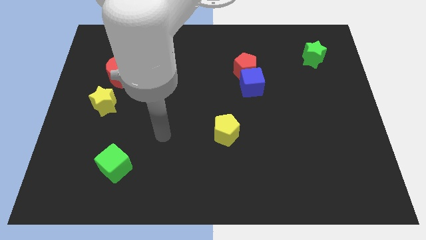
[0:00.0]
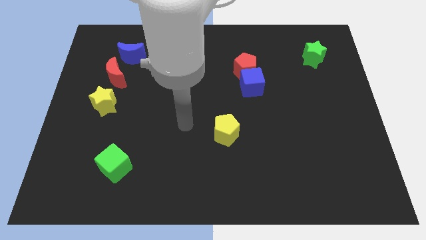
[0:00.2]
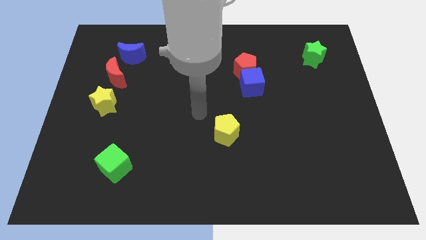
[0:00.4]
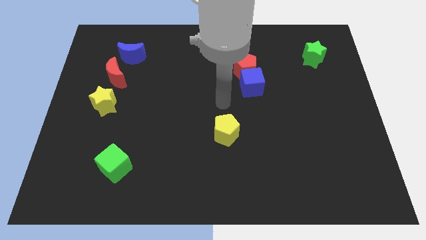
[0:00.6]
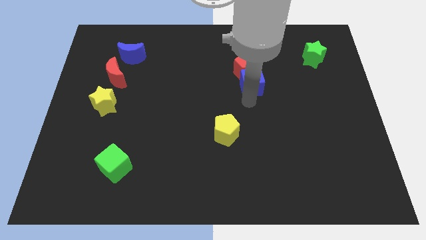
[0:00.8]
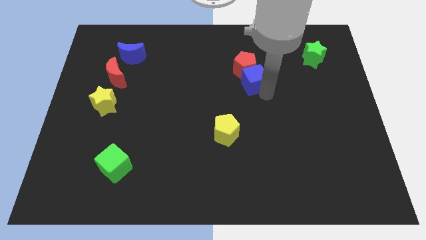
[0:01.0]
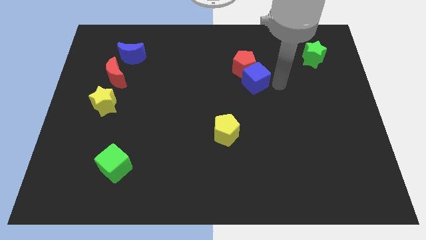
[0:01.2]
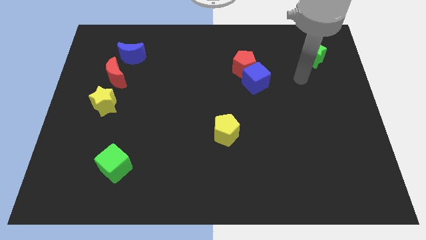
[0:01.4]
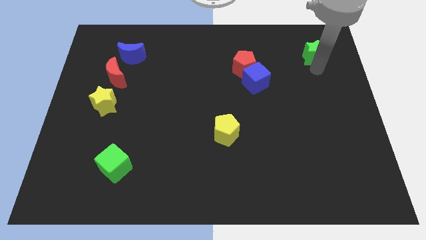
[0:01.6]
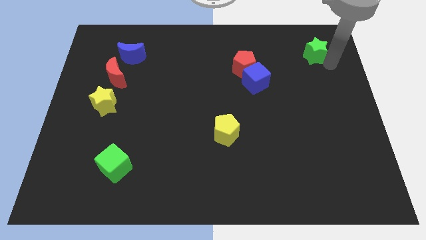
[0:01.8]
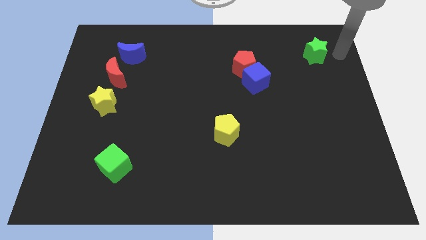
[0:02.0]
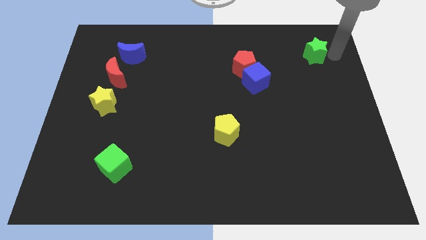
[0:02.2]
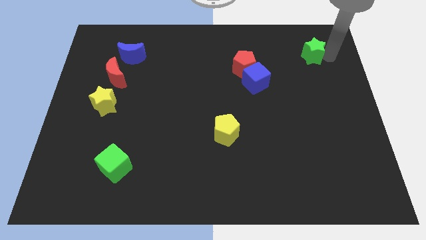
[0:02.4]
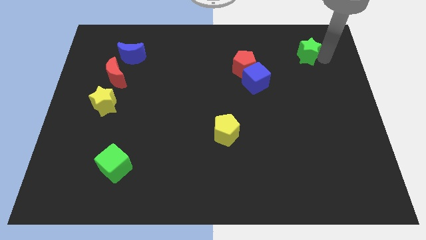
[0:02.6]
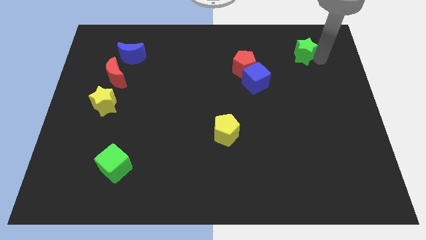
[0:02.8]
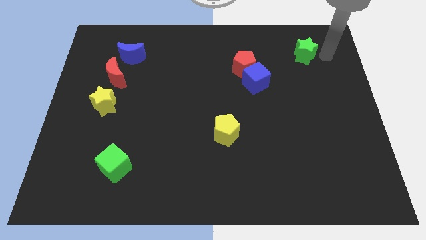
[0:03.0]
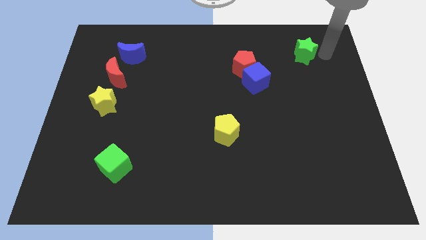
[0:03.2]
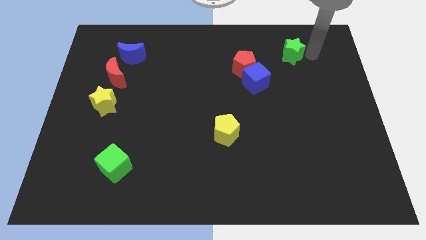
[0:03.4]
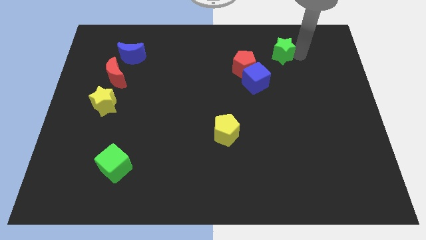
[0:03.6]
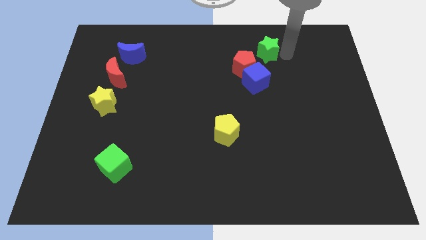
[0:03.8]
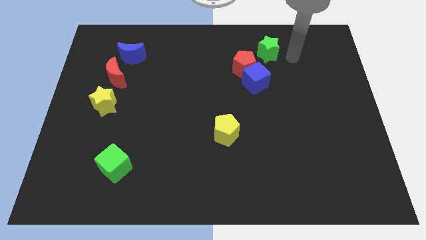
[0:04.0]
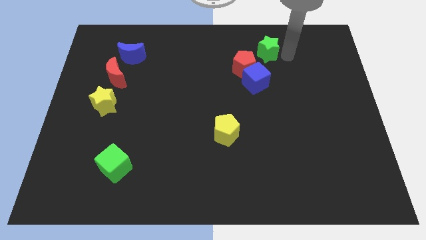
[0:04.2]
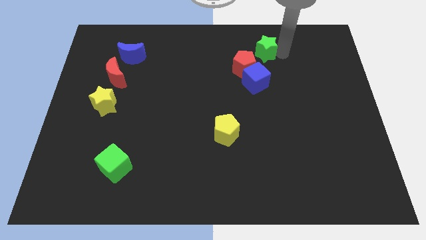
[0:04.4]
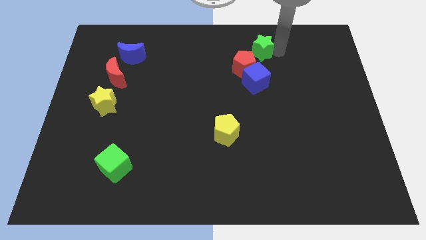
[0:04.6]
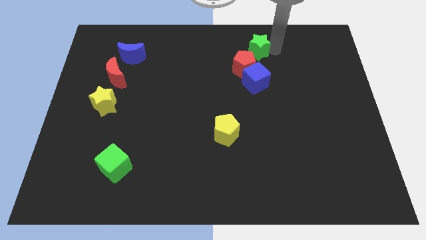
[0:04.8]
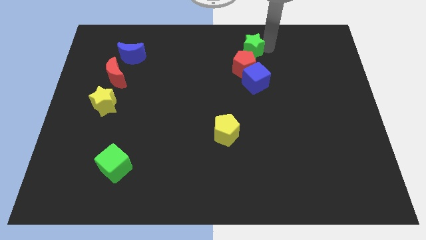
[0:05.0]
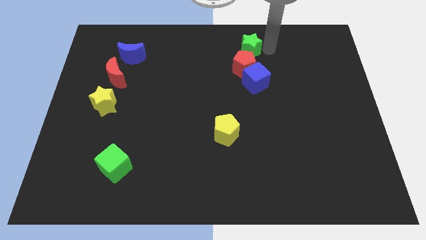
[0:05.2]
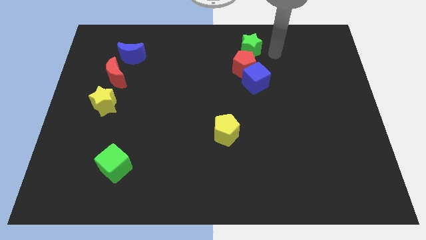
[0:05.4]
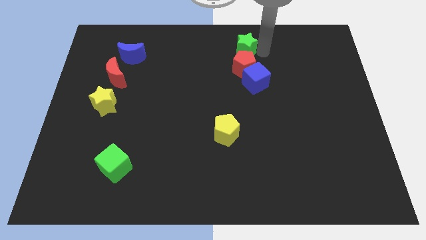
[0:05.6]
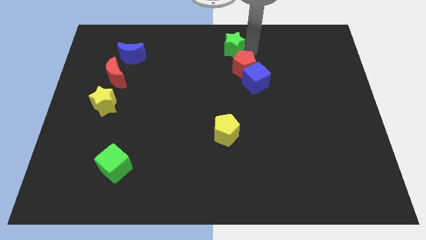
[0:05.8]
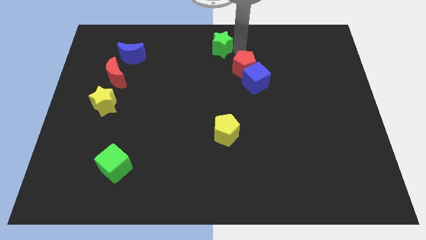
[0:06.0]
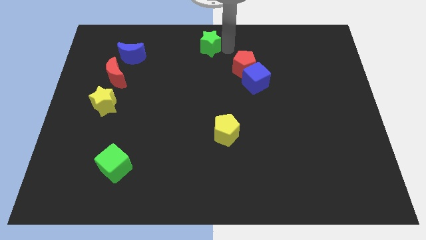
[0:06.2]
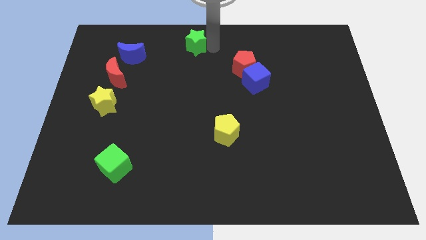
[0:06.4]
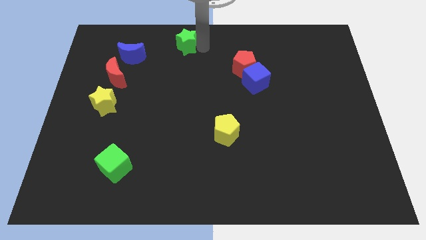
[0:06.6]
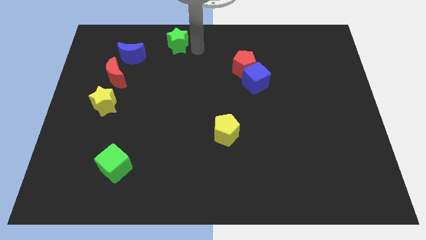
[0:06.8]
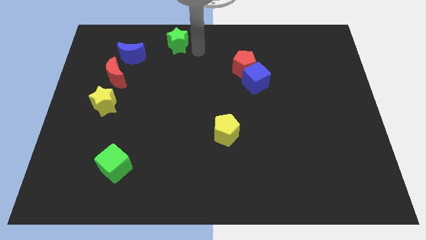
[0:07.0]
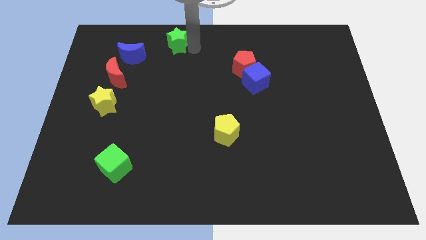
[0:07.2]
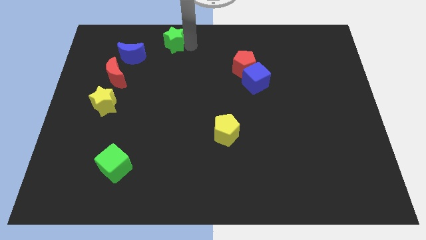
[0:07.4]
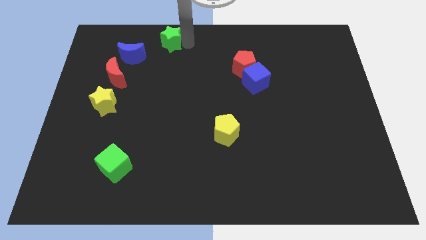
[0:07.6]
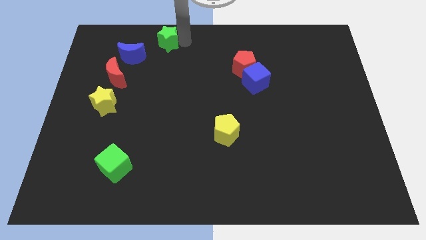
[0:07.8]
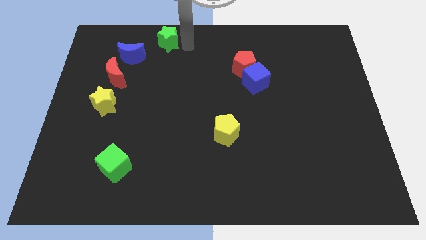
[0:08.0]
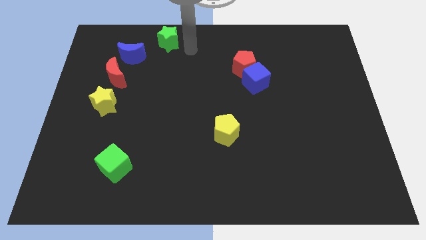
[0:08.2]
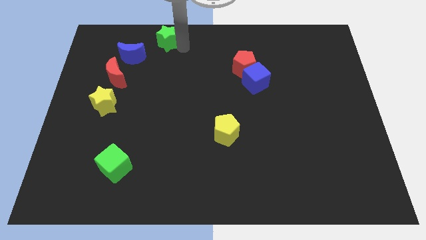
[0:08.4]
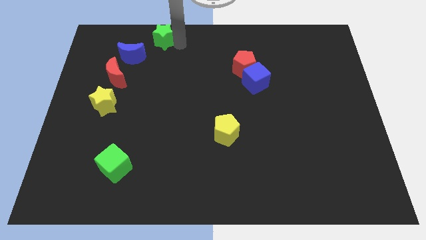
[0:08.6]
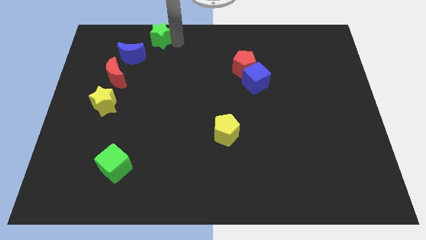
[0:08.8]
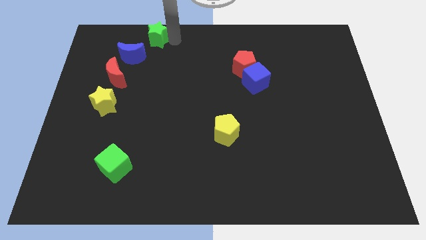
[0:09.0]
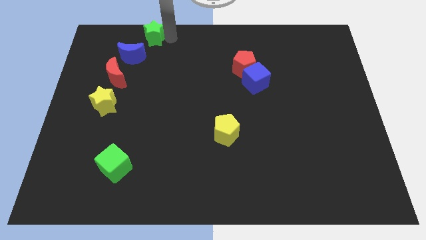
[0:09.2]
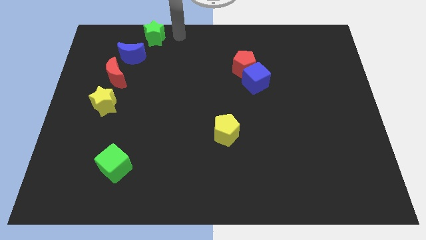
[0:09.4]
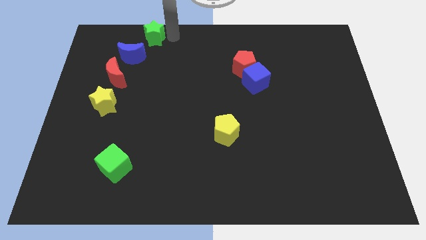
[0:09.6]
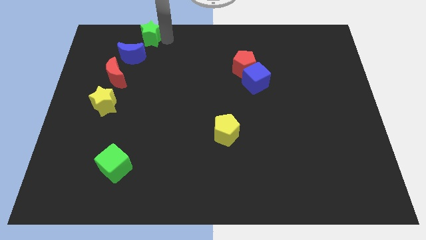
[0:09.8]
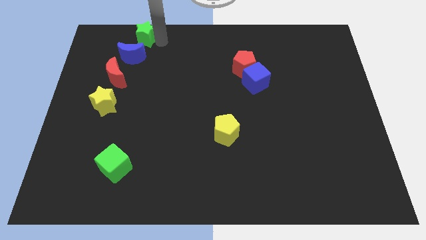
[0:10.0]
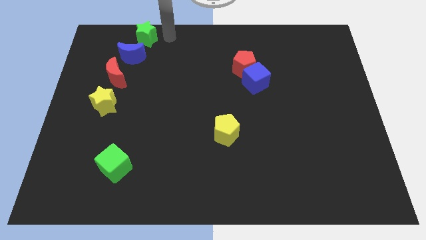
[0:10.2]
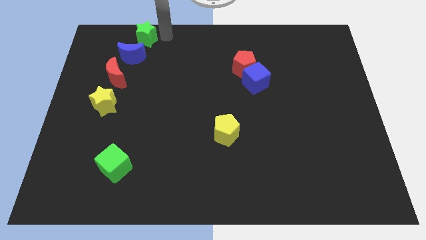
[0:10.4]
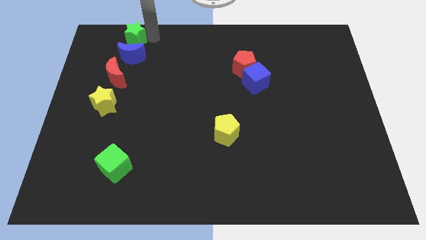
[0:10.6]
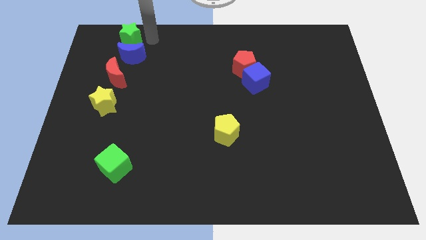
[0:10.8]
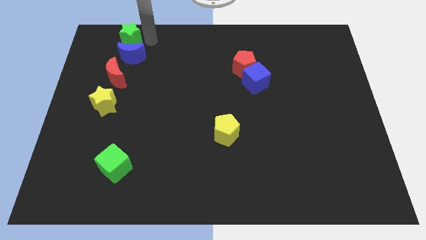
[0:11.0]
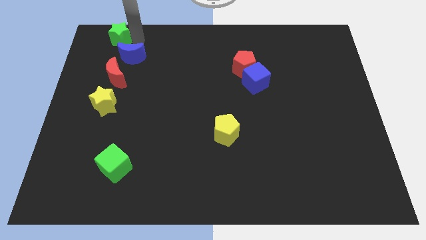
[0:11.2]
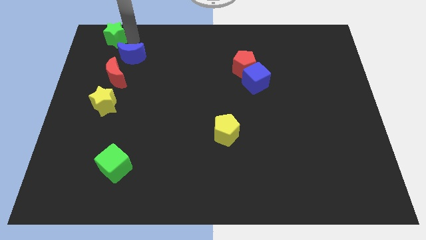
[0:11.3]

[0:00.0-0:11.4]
put the green star to the top left corner
